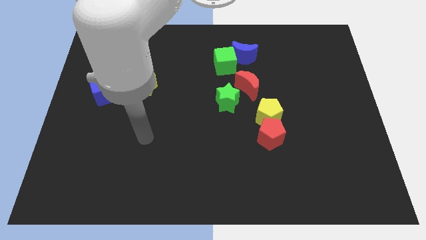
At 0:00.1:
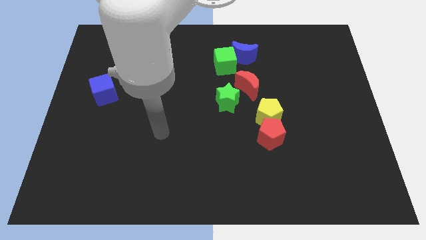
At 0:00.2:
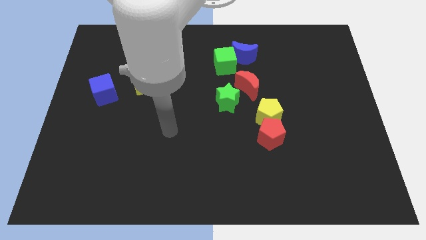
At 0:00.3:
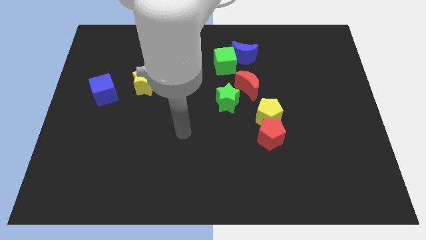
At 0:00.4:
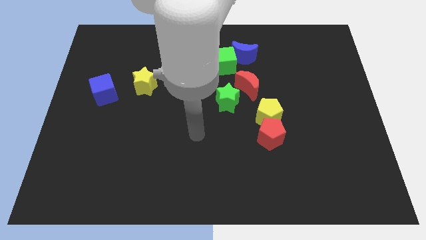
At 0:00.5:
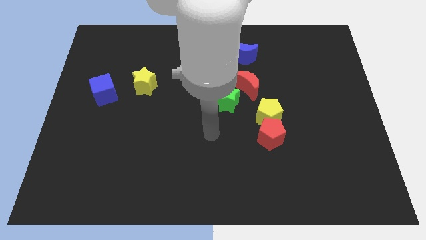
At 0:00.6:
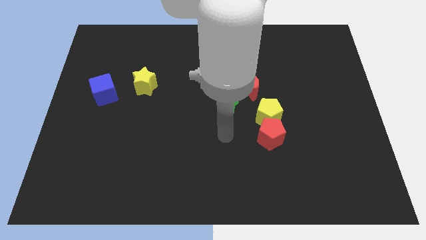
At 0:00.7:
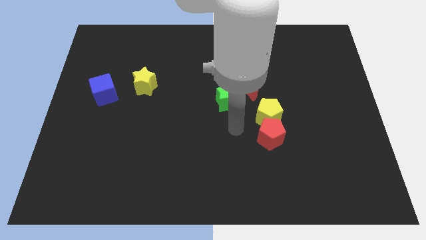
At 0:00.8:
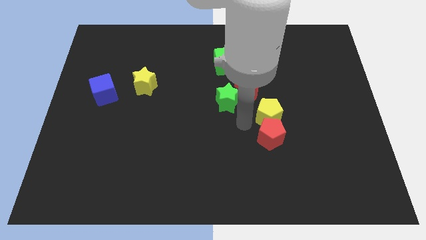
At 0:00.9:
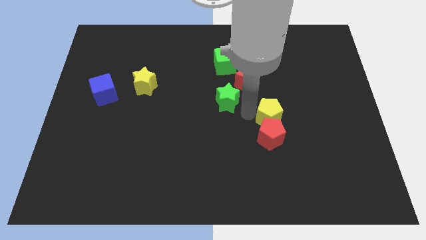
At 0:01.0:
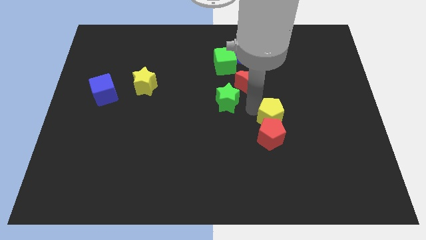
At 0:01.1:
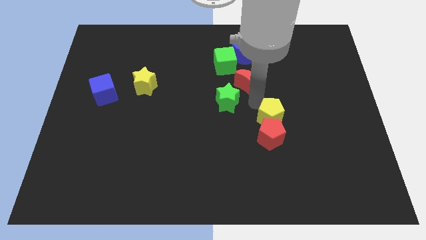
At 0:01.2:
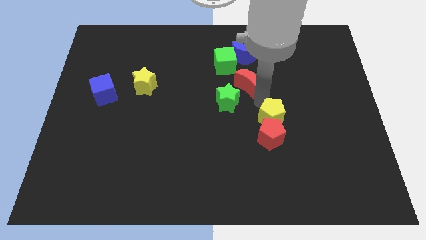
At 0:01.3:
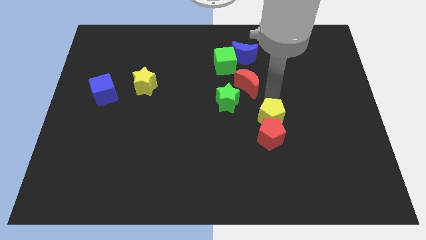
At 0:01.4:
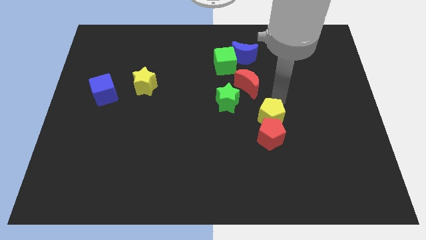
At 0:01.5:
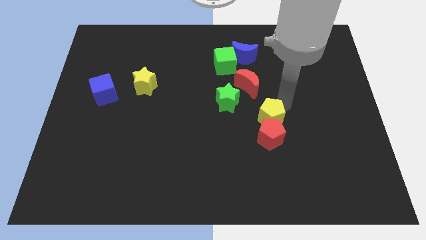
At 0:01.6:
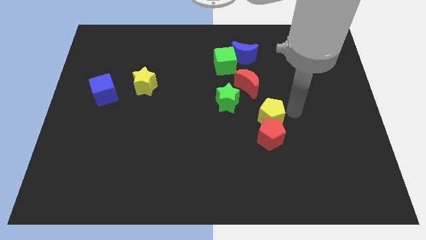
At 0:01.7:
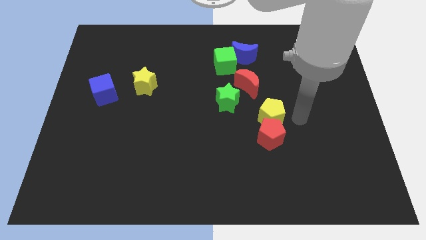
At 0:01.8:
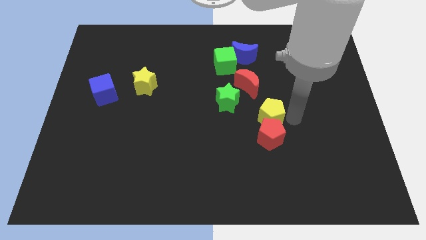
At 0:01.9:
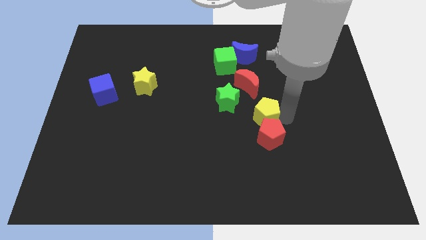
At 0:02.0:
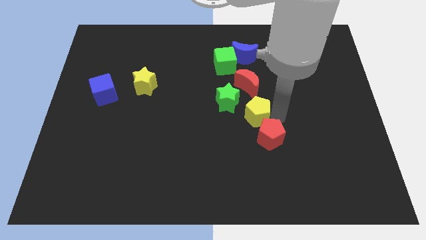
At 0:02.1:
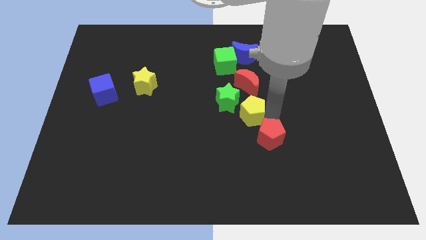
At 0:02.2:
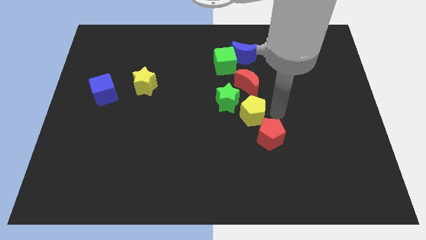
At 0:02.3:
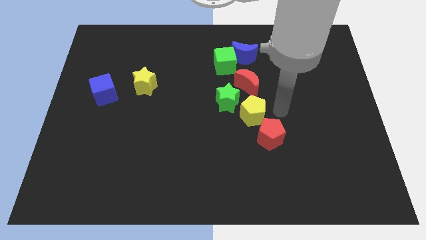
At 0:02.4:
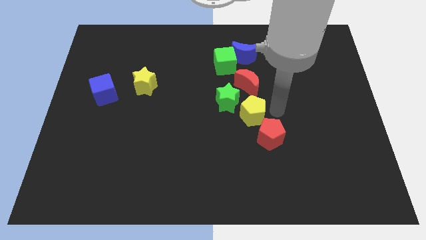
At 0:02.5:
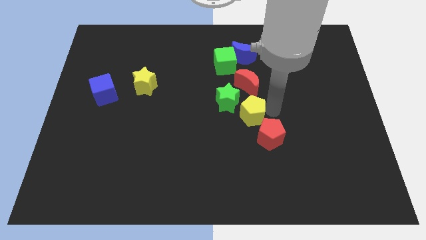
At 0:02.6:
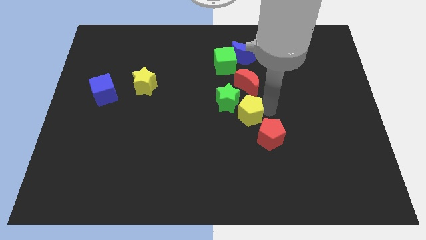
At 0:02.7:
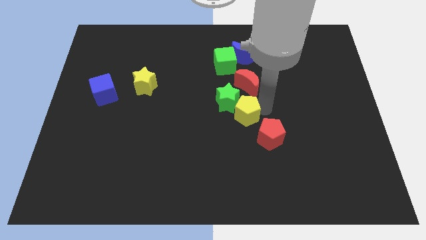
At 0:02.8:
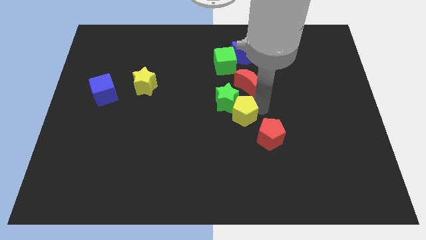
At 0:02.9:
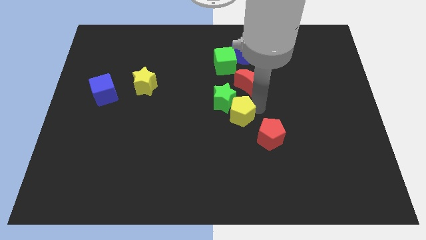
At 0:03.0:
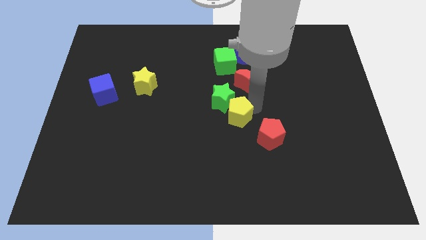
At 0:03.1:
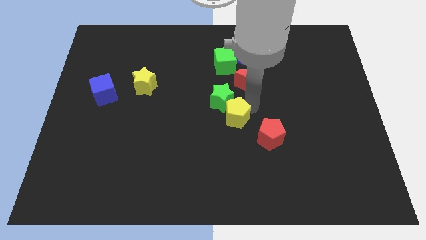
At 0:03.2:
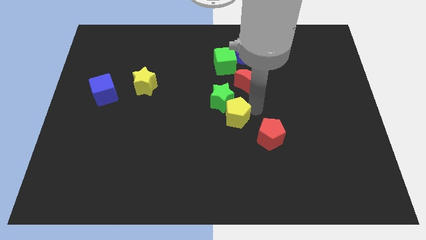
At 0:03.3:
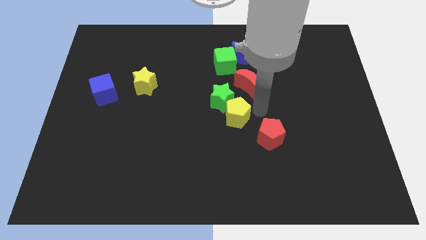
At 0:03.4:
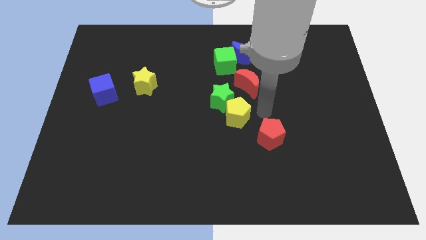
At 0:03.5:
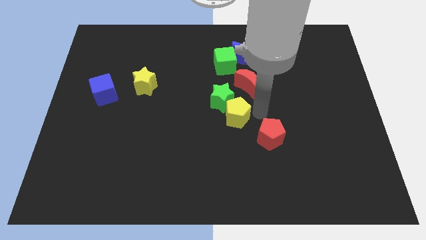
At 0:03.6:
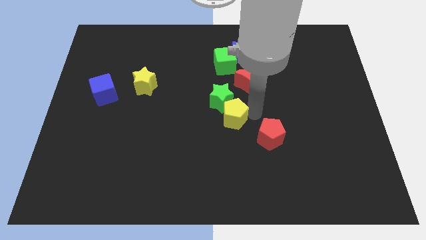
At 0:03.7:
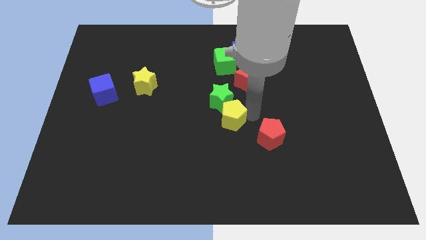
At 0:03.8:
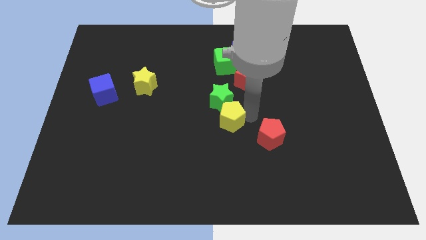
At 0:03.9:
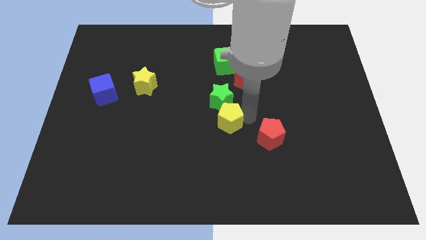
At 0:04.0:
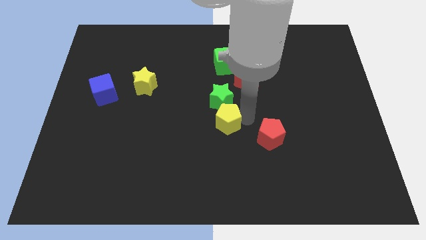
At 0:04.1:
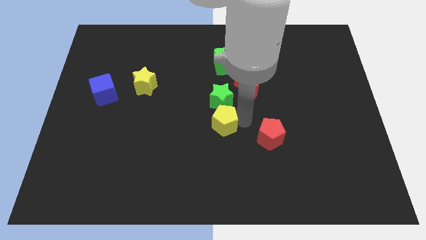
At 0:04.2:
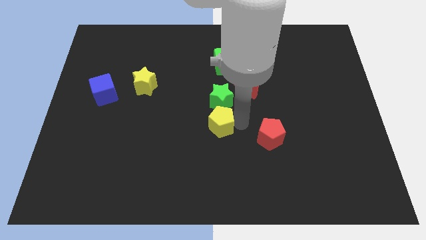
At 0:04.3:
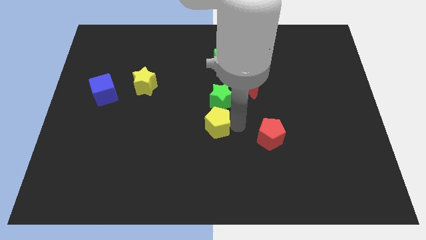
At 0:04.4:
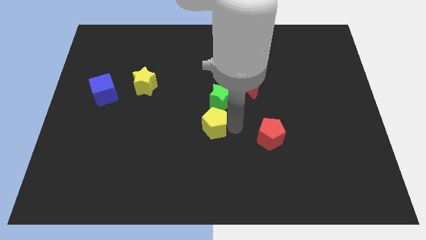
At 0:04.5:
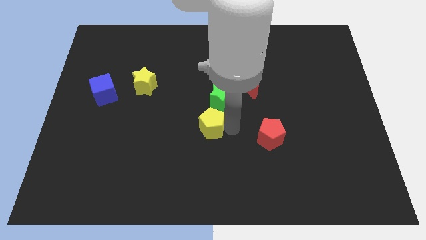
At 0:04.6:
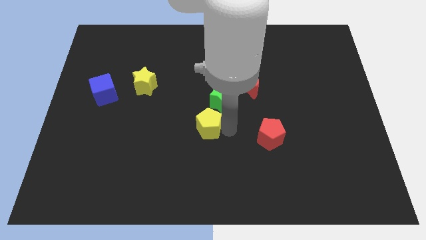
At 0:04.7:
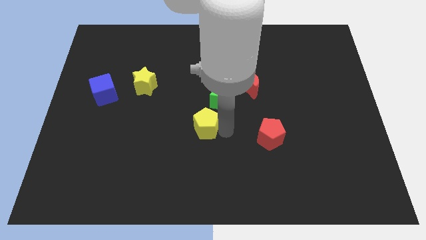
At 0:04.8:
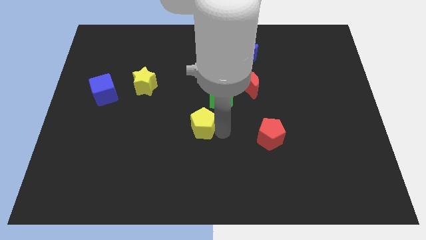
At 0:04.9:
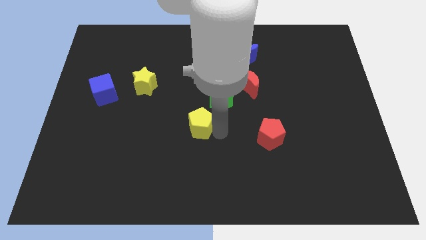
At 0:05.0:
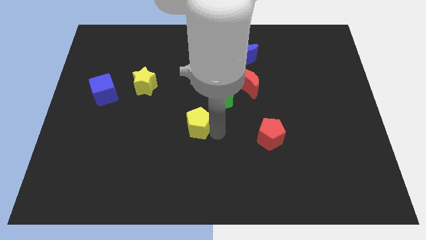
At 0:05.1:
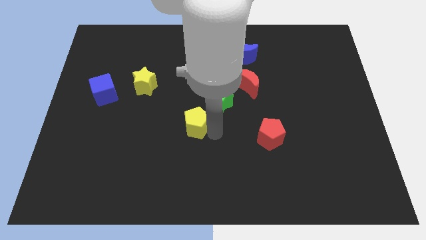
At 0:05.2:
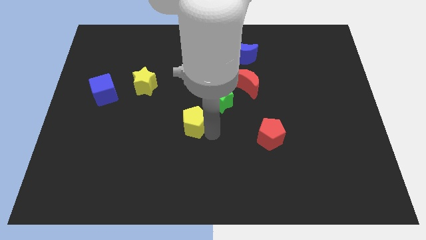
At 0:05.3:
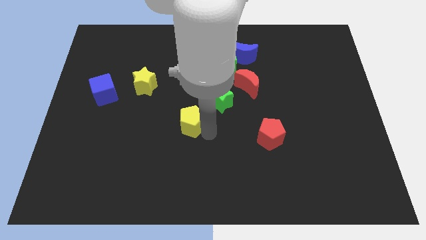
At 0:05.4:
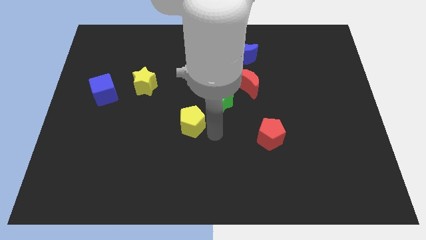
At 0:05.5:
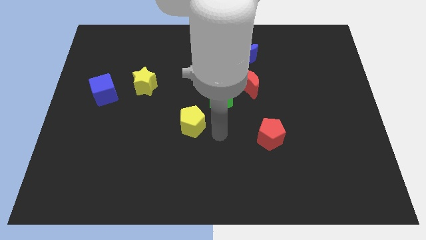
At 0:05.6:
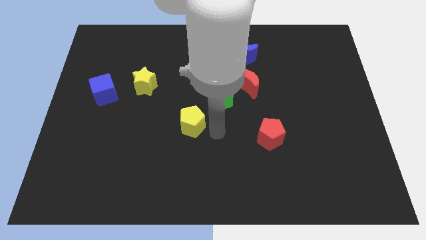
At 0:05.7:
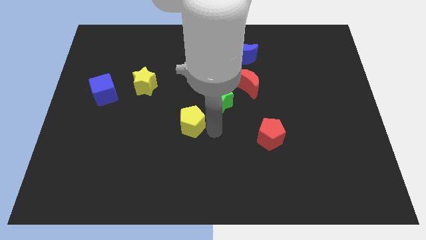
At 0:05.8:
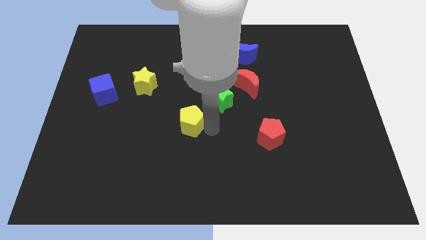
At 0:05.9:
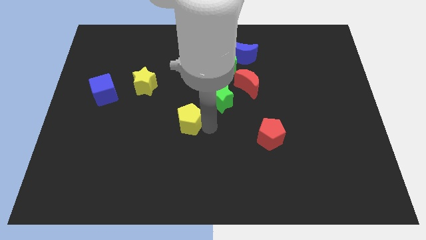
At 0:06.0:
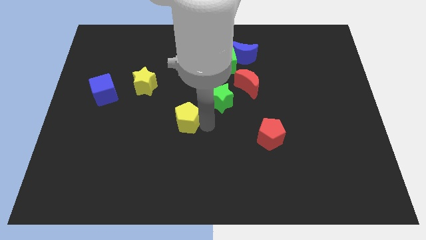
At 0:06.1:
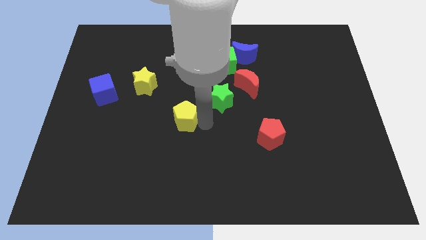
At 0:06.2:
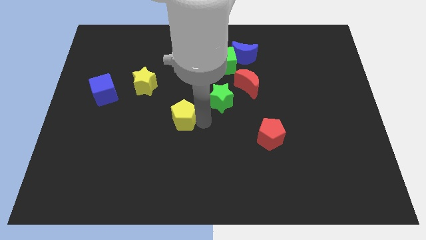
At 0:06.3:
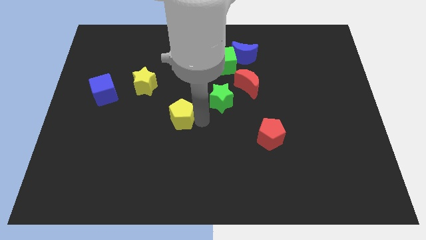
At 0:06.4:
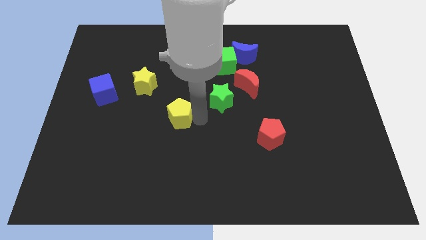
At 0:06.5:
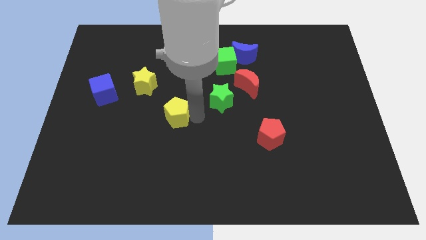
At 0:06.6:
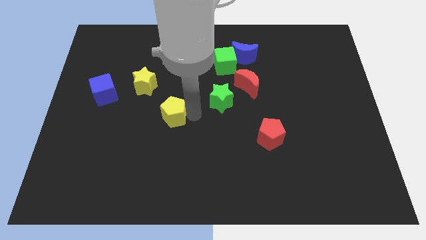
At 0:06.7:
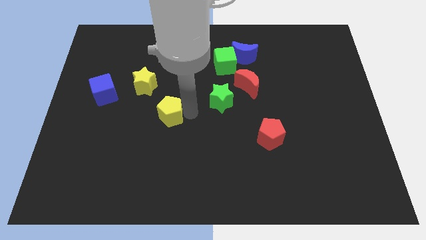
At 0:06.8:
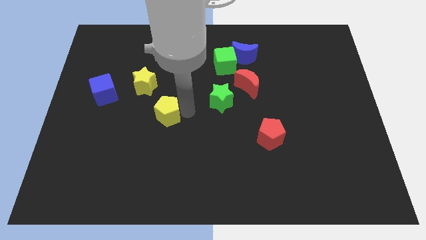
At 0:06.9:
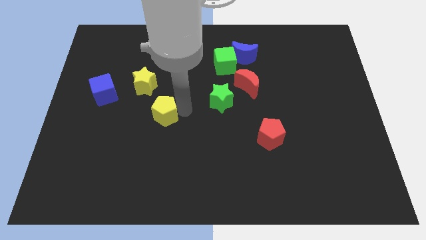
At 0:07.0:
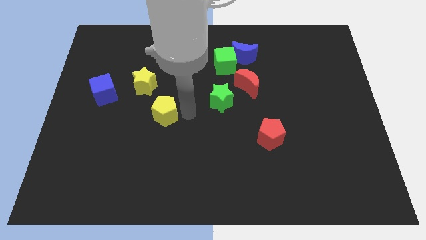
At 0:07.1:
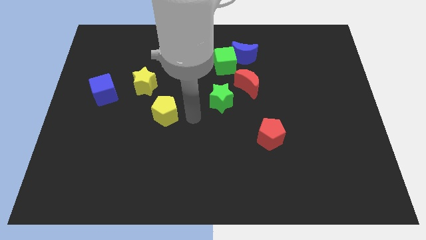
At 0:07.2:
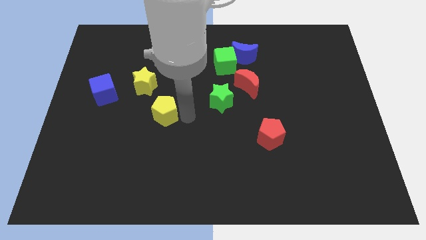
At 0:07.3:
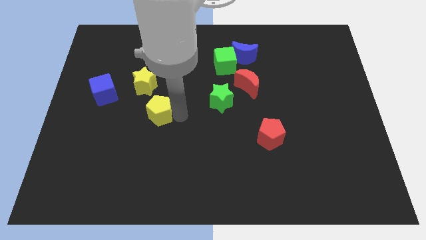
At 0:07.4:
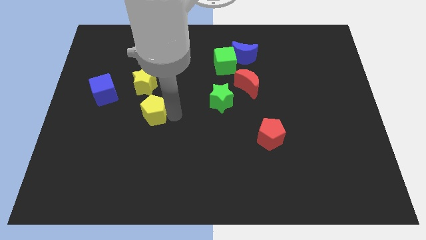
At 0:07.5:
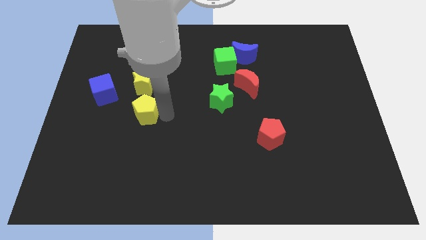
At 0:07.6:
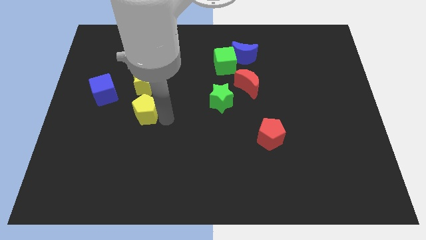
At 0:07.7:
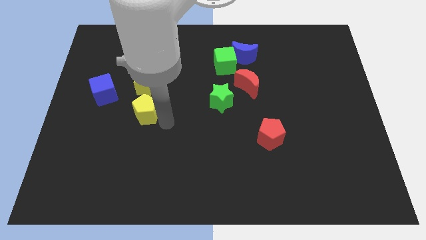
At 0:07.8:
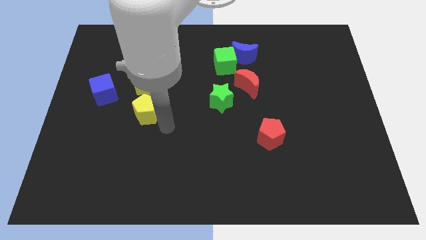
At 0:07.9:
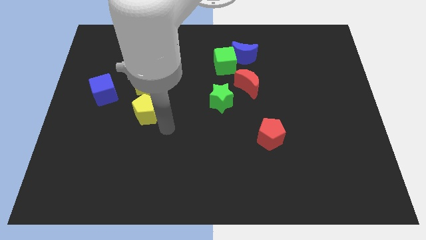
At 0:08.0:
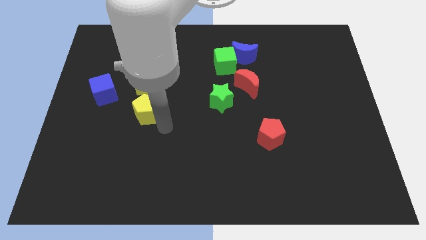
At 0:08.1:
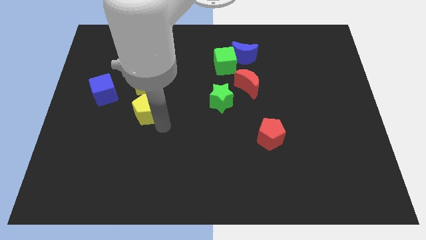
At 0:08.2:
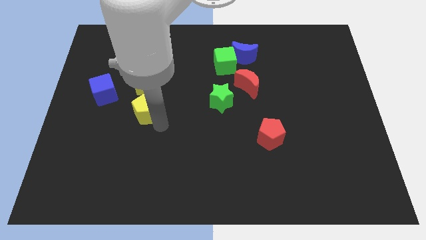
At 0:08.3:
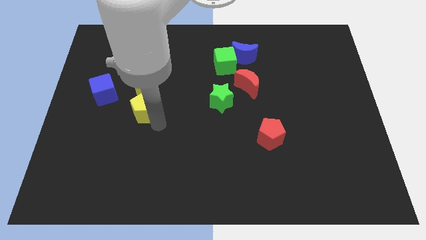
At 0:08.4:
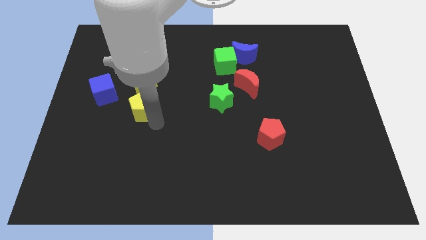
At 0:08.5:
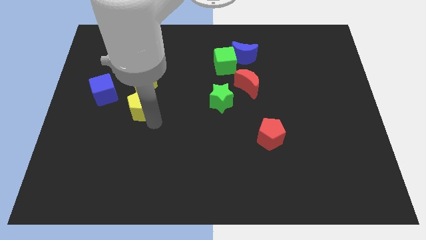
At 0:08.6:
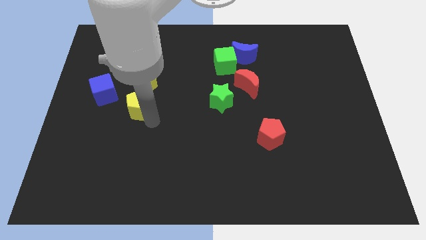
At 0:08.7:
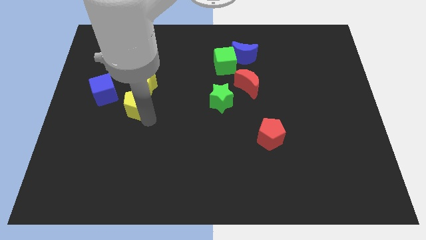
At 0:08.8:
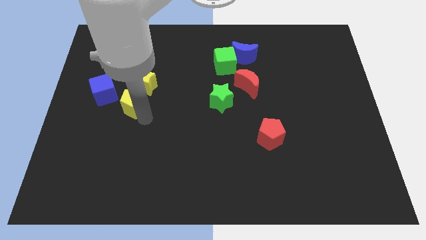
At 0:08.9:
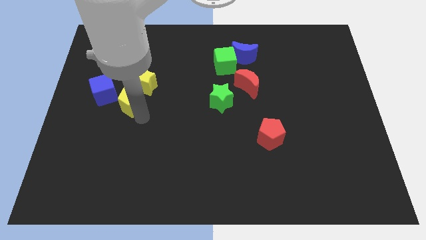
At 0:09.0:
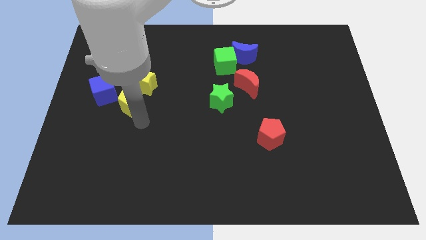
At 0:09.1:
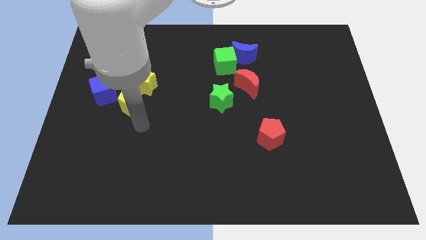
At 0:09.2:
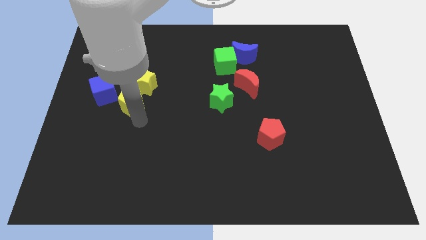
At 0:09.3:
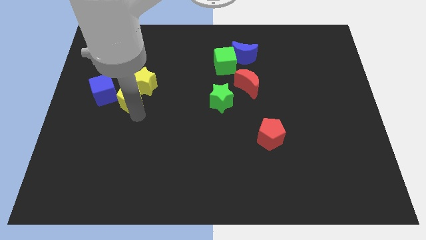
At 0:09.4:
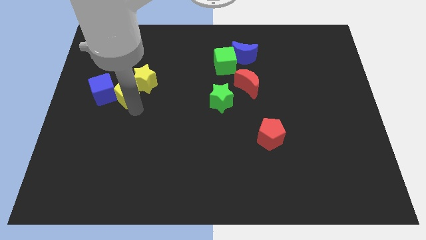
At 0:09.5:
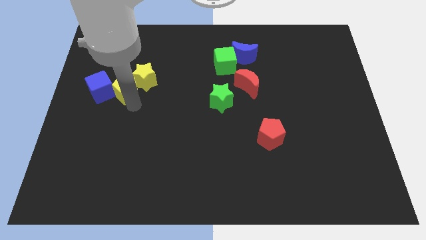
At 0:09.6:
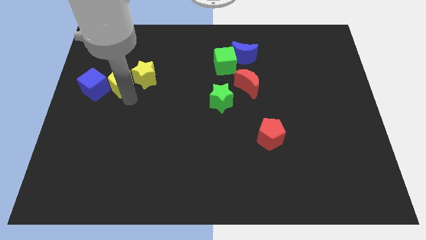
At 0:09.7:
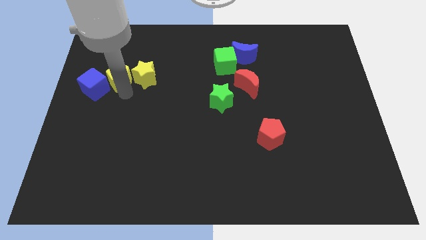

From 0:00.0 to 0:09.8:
push the yellow pentagon diagonally up and to the left of the yellow star
